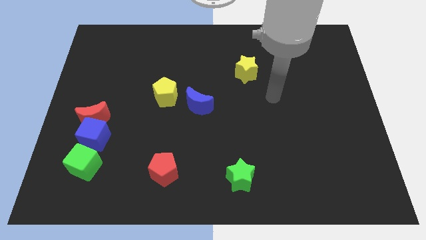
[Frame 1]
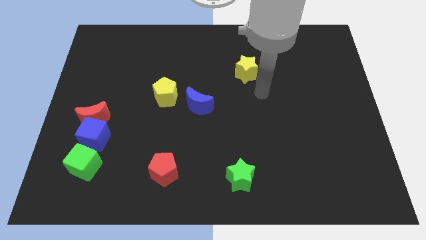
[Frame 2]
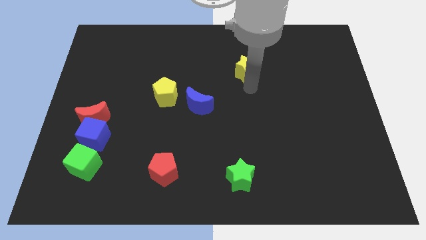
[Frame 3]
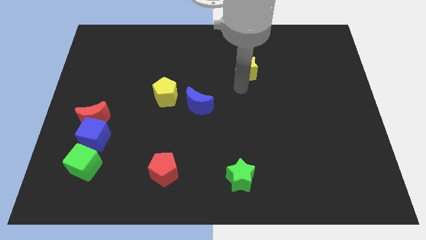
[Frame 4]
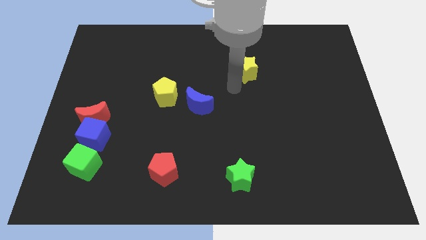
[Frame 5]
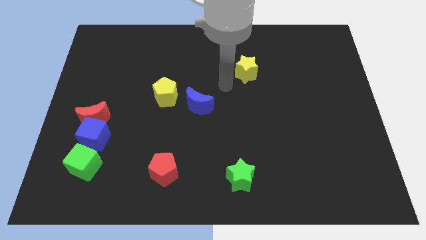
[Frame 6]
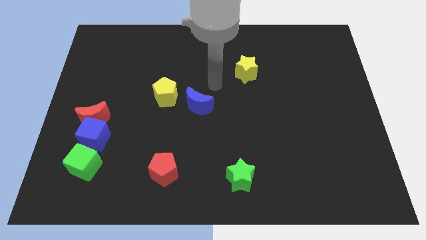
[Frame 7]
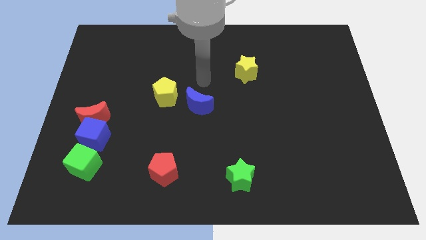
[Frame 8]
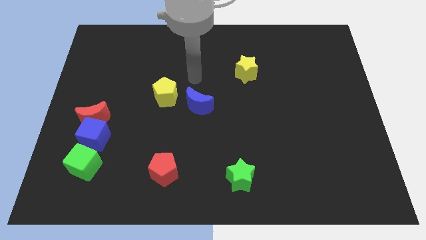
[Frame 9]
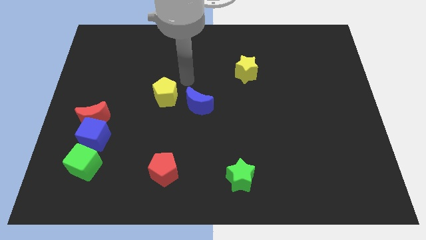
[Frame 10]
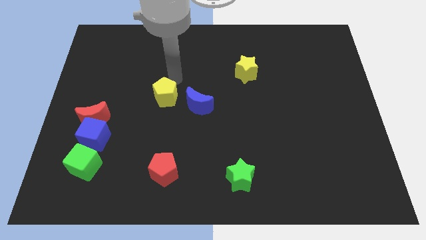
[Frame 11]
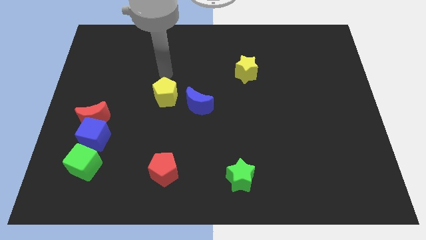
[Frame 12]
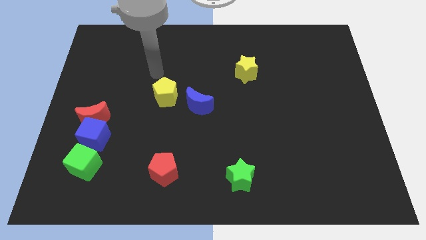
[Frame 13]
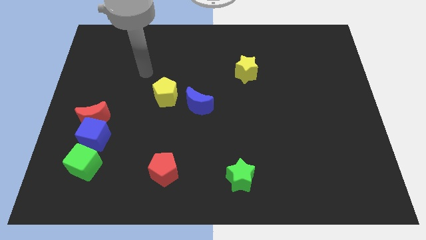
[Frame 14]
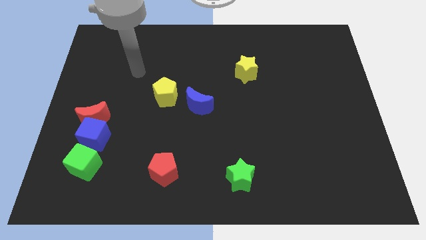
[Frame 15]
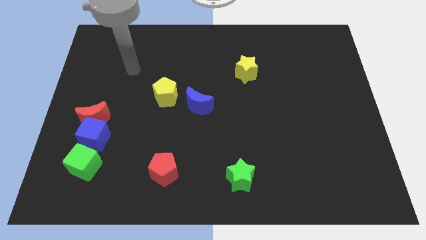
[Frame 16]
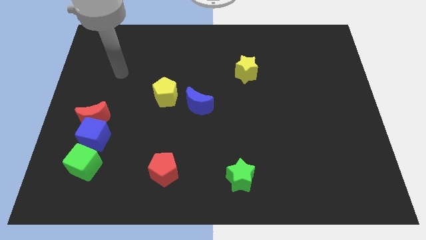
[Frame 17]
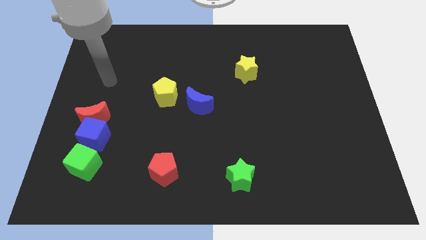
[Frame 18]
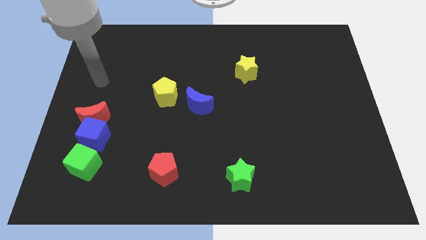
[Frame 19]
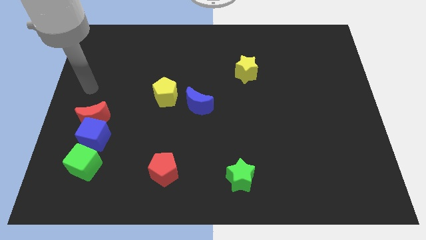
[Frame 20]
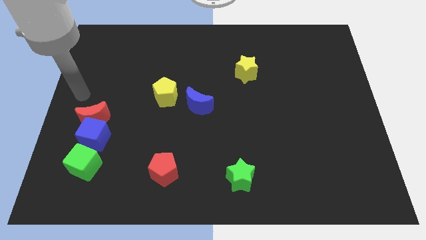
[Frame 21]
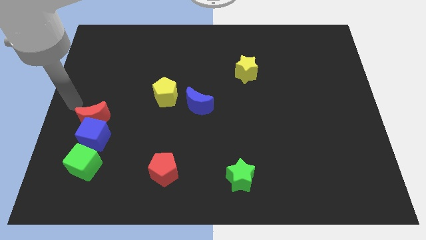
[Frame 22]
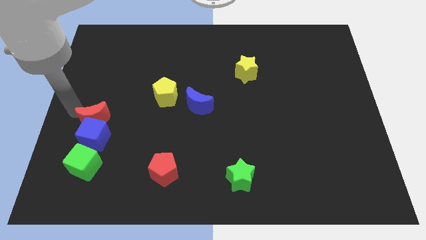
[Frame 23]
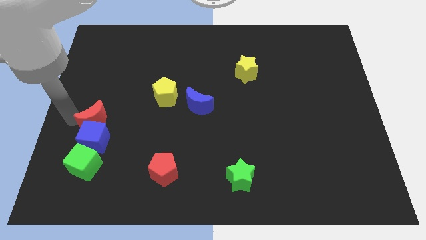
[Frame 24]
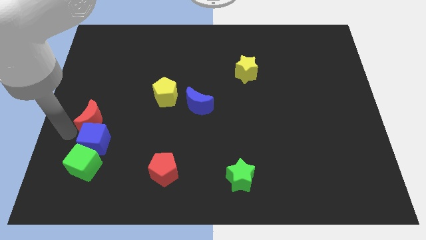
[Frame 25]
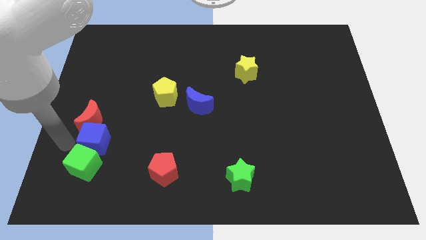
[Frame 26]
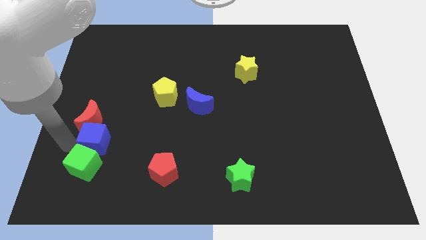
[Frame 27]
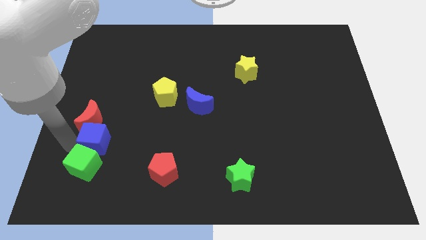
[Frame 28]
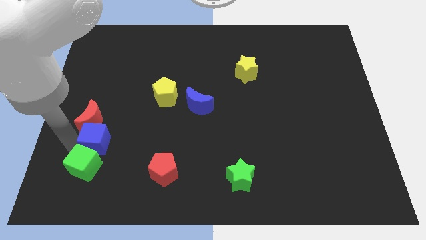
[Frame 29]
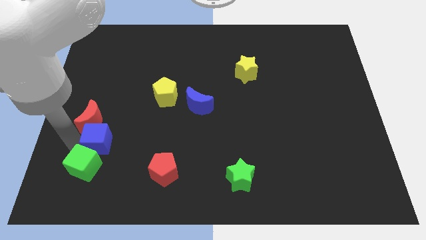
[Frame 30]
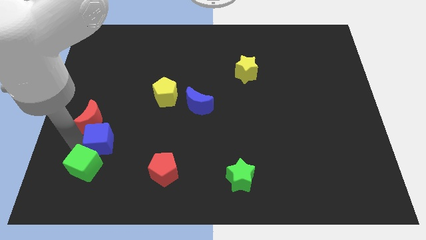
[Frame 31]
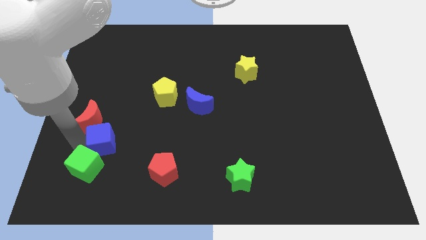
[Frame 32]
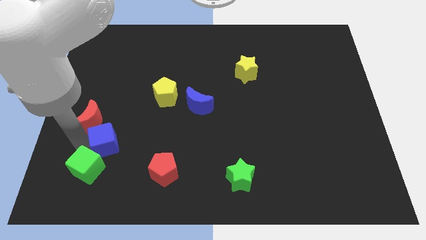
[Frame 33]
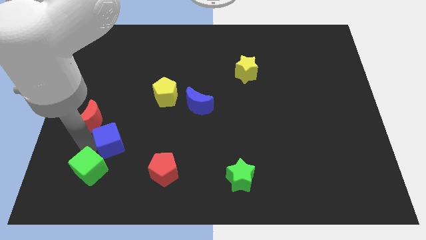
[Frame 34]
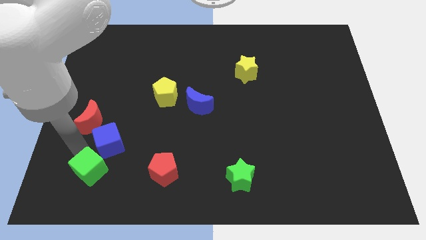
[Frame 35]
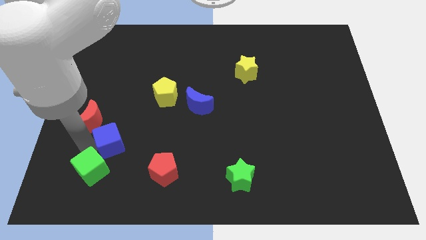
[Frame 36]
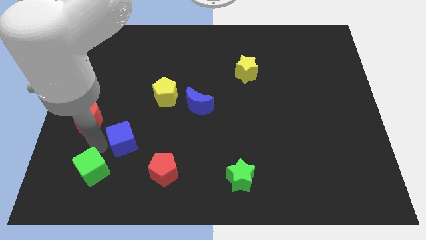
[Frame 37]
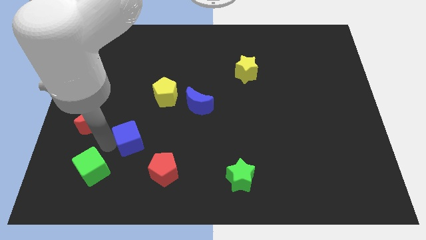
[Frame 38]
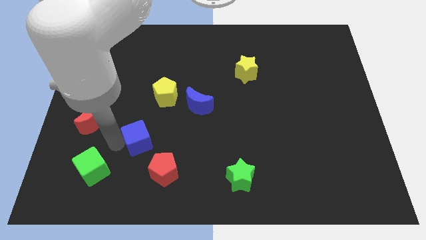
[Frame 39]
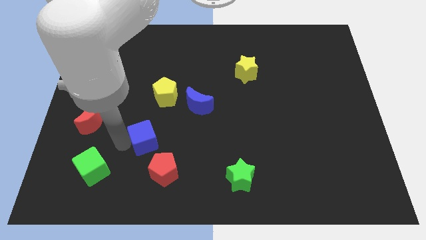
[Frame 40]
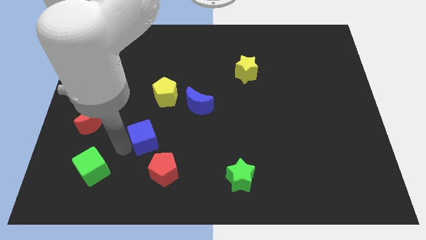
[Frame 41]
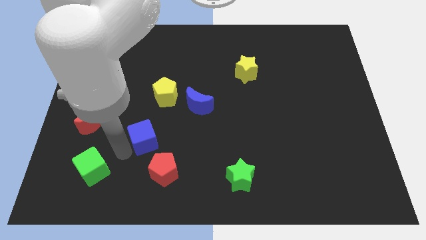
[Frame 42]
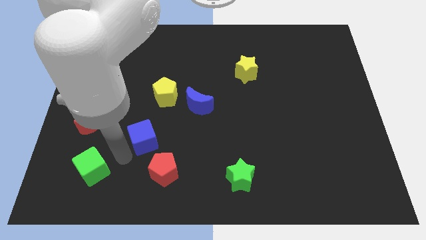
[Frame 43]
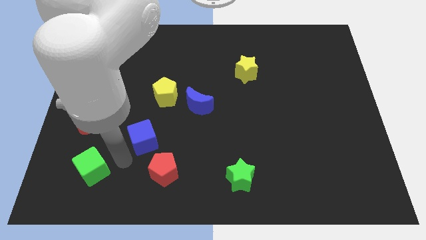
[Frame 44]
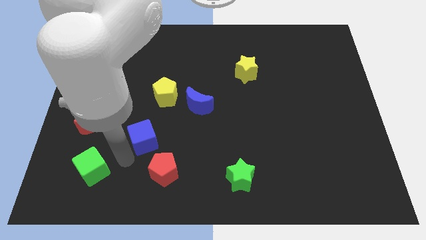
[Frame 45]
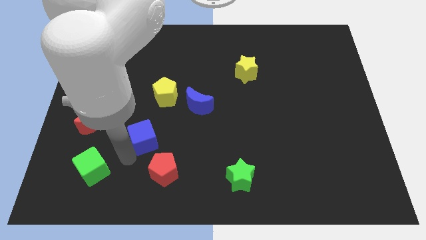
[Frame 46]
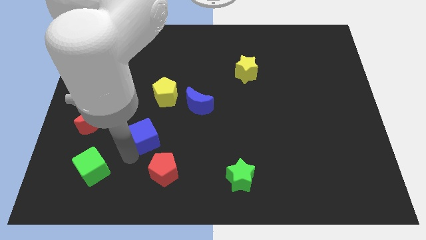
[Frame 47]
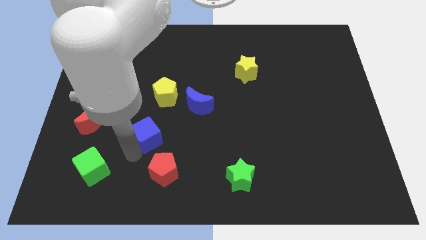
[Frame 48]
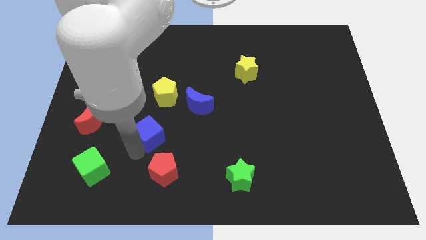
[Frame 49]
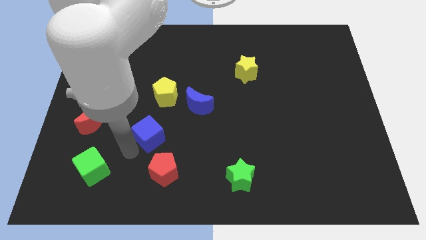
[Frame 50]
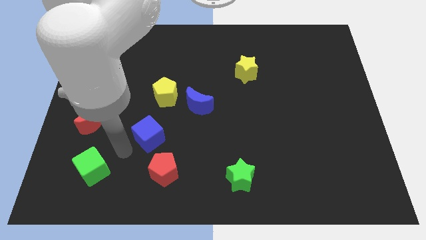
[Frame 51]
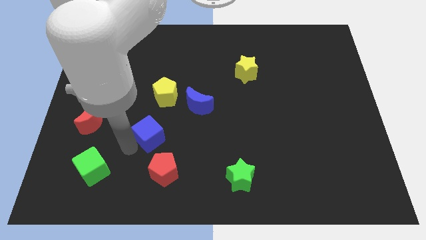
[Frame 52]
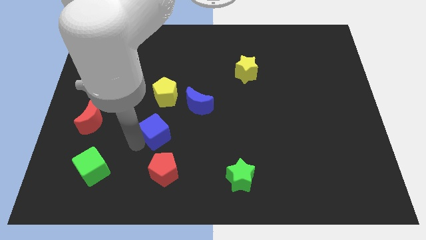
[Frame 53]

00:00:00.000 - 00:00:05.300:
push the blue cube to the bottom left side of the blue moon

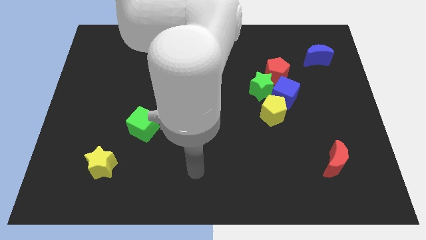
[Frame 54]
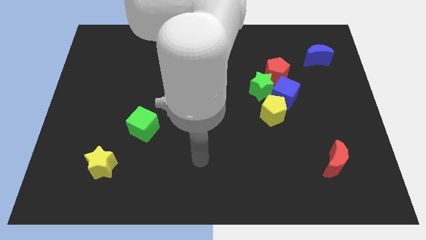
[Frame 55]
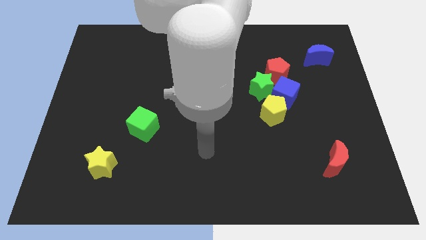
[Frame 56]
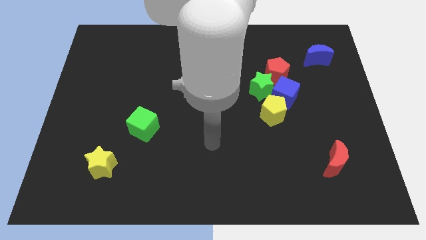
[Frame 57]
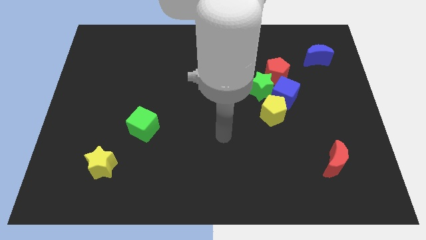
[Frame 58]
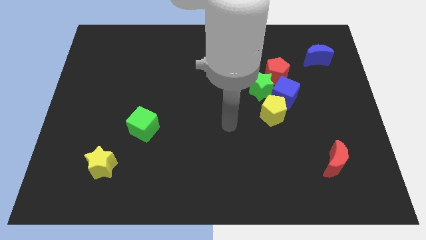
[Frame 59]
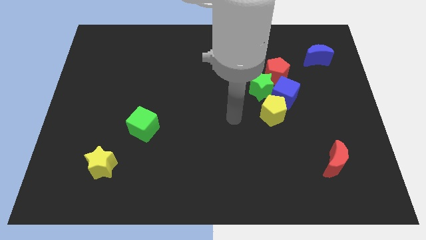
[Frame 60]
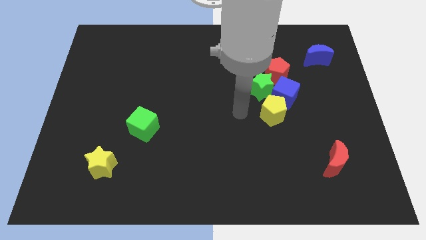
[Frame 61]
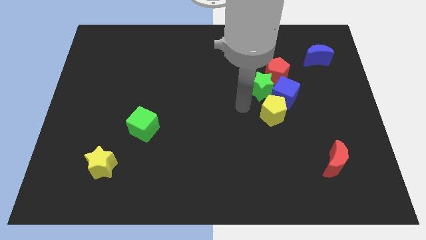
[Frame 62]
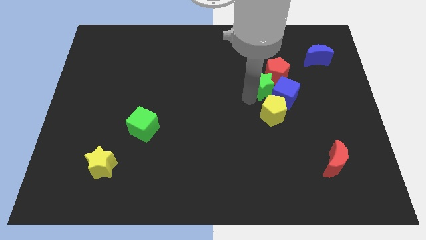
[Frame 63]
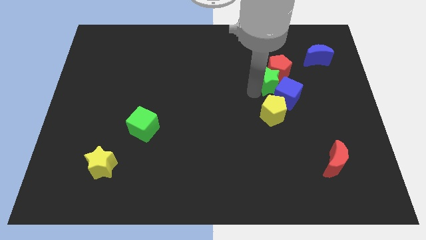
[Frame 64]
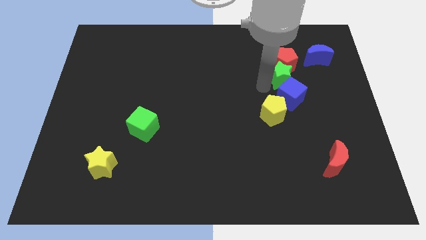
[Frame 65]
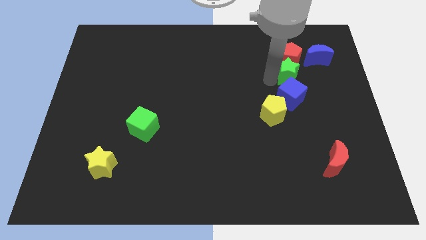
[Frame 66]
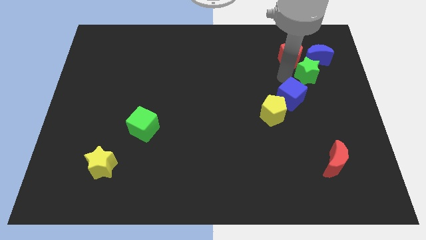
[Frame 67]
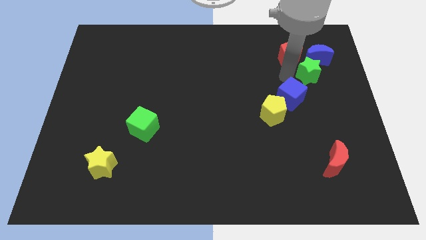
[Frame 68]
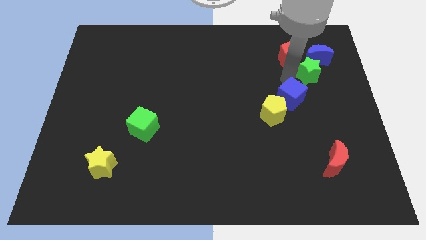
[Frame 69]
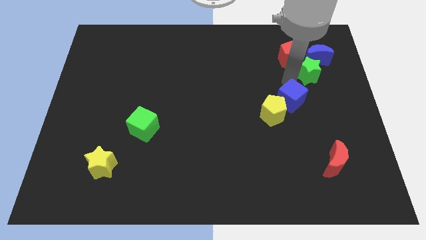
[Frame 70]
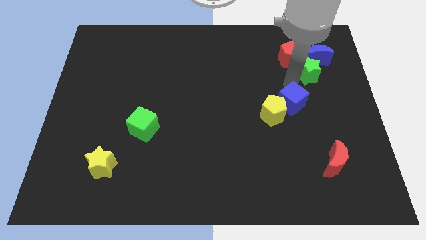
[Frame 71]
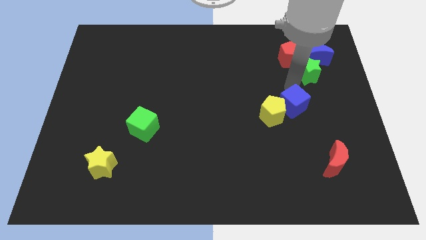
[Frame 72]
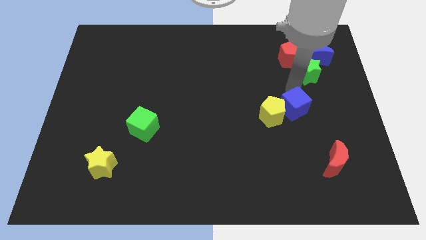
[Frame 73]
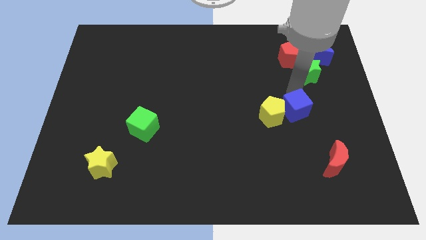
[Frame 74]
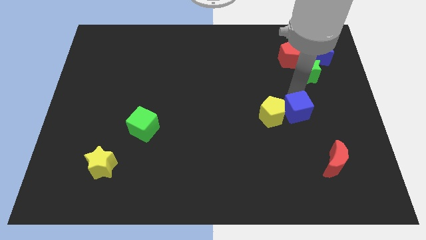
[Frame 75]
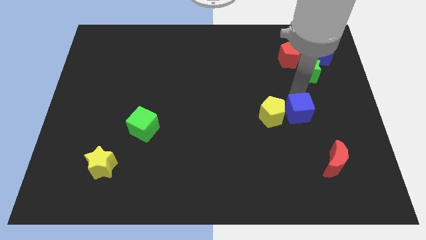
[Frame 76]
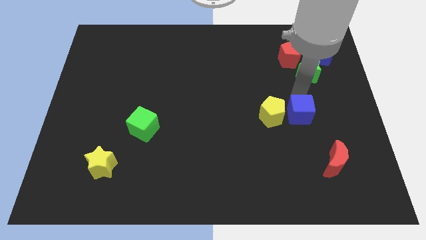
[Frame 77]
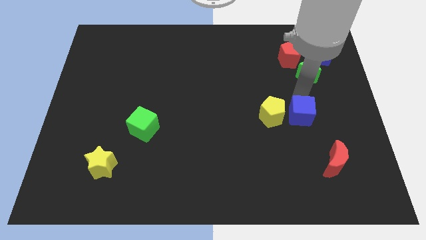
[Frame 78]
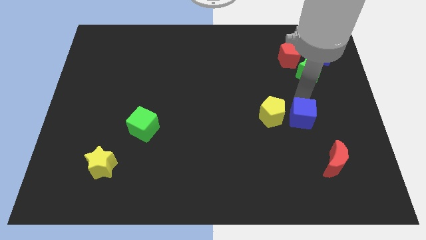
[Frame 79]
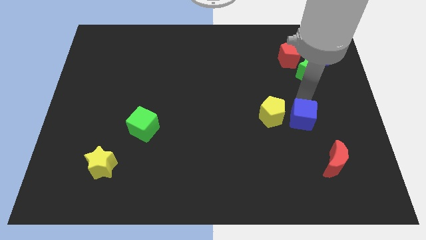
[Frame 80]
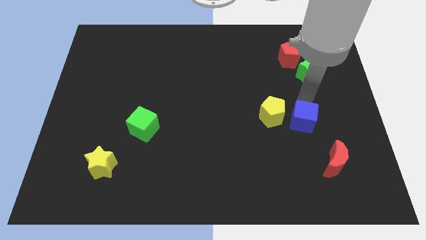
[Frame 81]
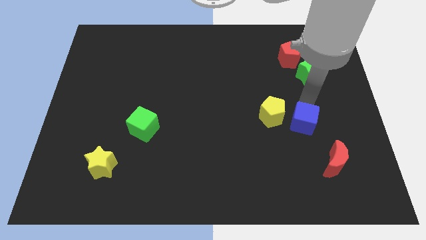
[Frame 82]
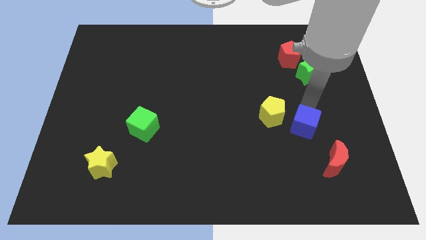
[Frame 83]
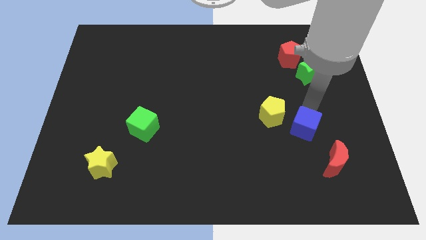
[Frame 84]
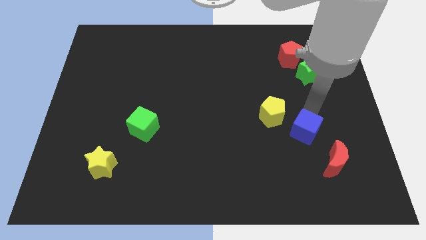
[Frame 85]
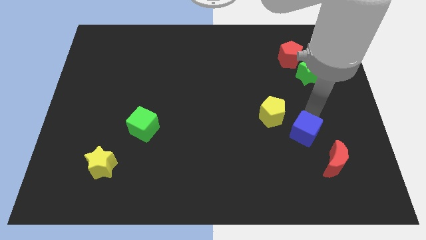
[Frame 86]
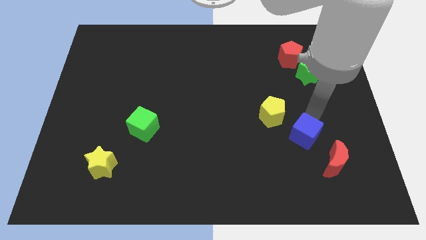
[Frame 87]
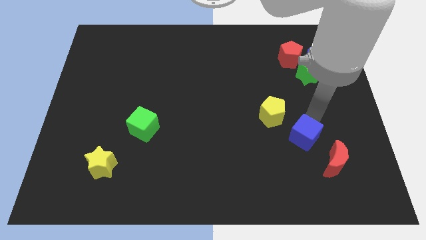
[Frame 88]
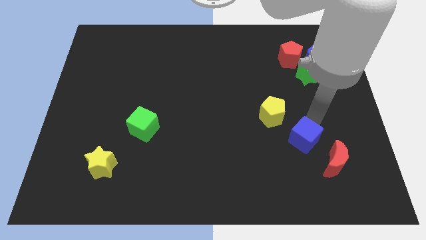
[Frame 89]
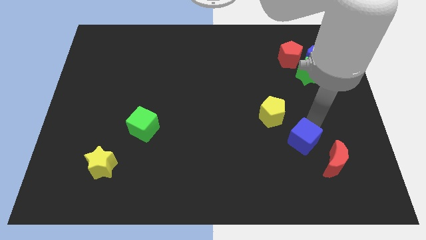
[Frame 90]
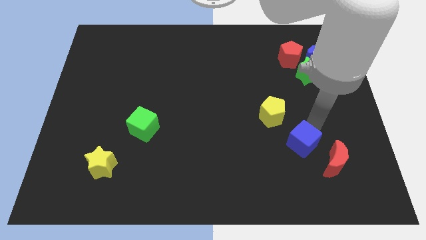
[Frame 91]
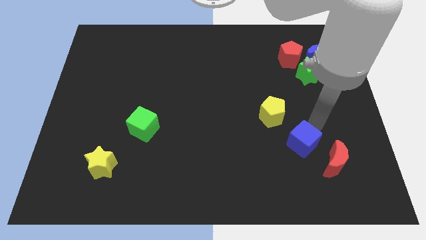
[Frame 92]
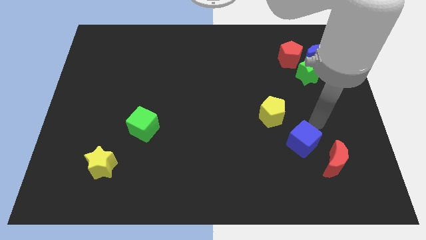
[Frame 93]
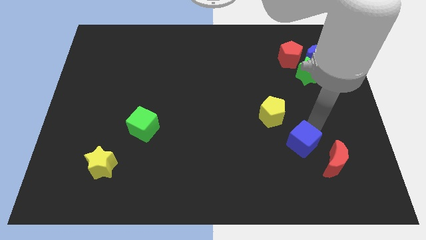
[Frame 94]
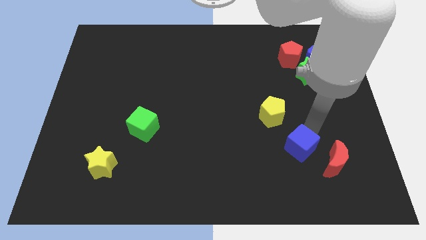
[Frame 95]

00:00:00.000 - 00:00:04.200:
slide the blue cube to the left of the red moon
